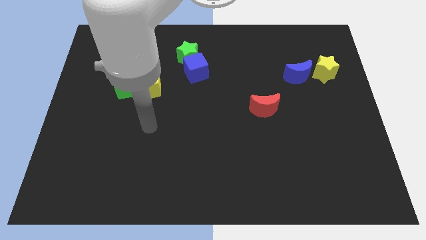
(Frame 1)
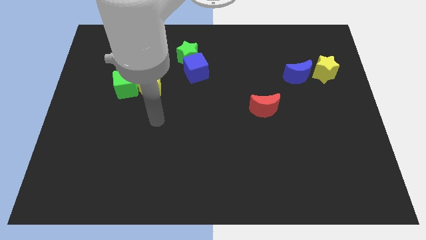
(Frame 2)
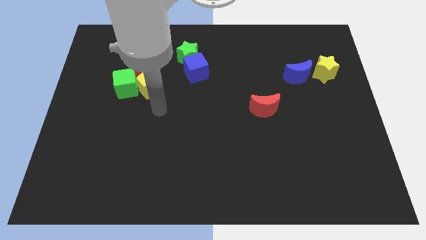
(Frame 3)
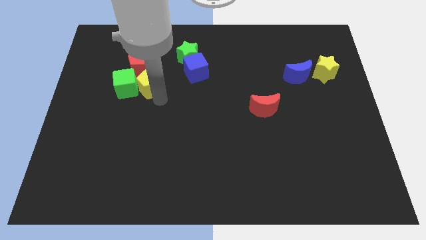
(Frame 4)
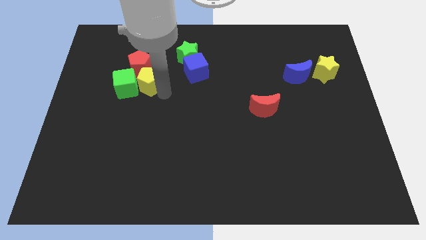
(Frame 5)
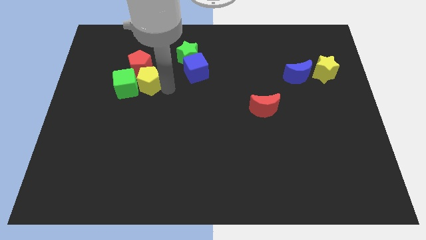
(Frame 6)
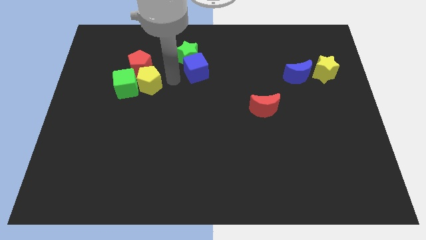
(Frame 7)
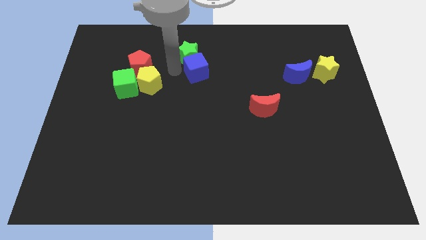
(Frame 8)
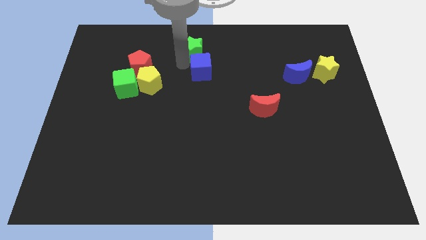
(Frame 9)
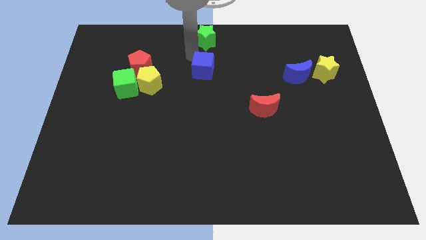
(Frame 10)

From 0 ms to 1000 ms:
move the blue cube away from the green star

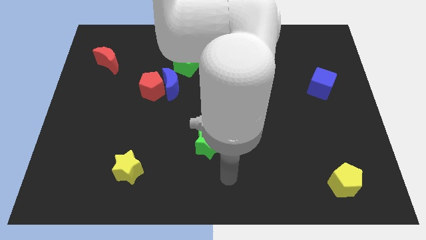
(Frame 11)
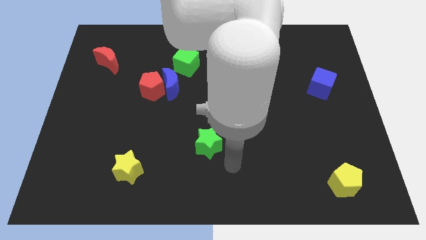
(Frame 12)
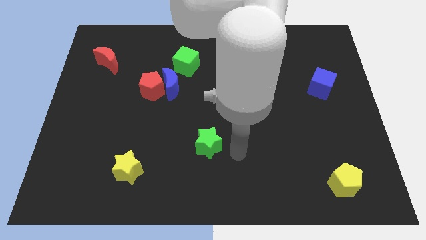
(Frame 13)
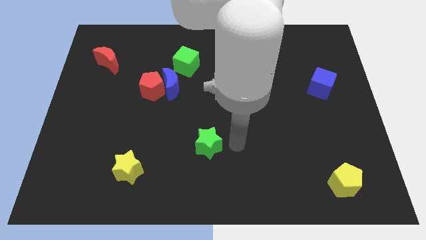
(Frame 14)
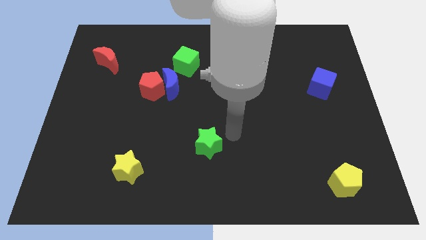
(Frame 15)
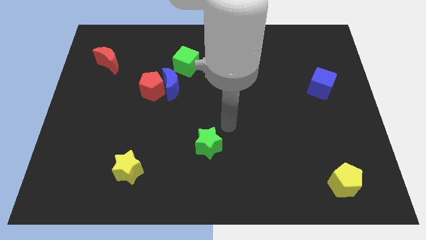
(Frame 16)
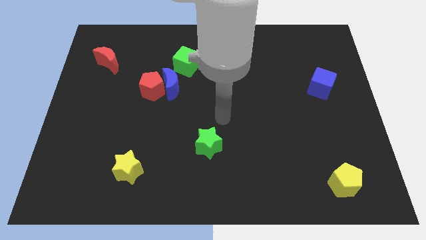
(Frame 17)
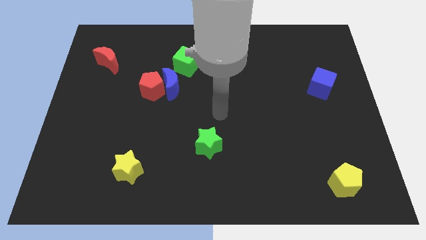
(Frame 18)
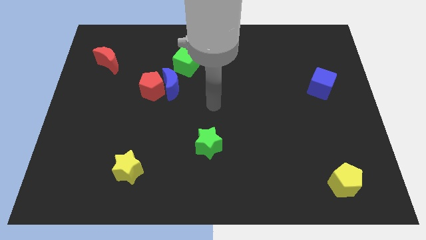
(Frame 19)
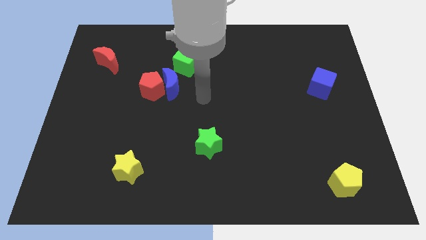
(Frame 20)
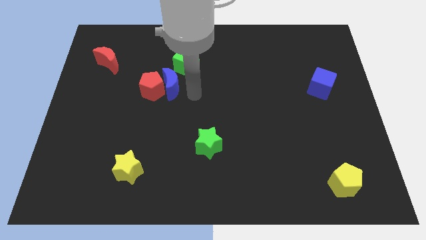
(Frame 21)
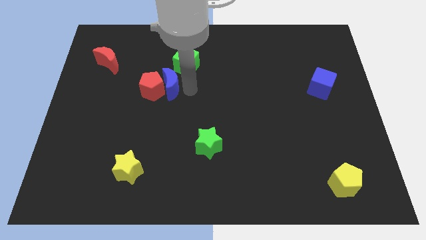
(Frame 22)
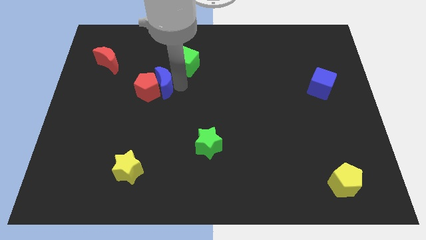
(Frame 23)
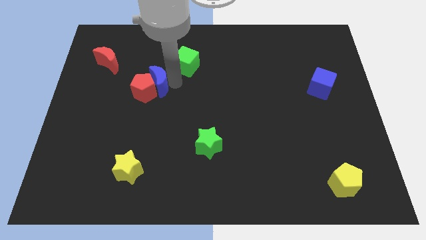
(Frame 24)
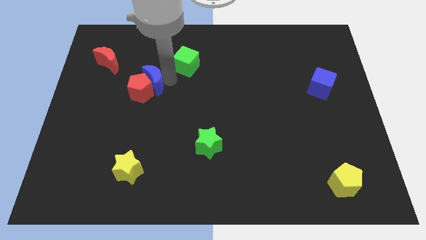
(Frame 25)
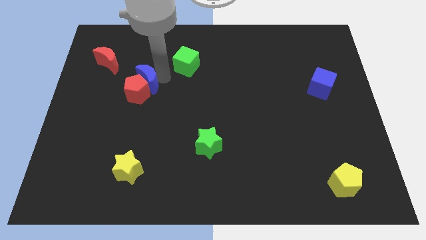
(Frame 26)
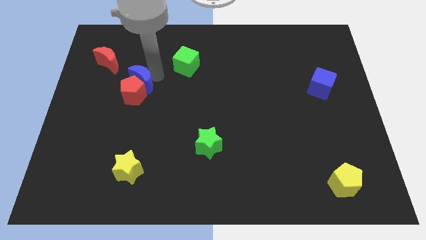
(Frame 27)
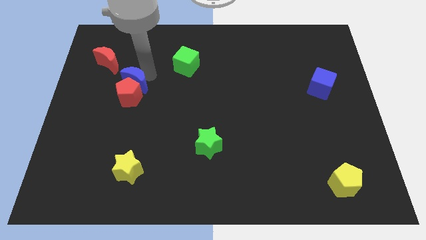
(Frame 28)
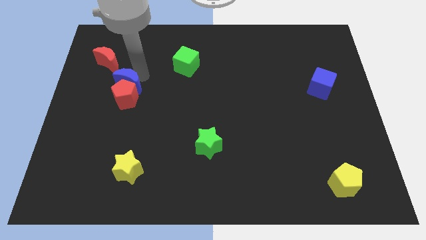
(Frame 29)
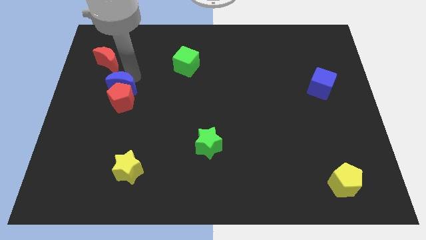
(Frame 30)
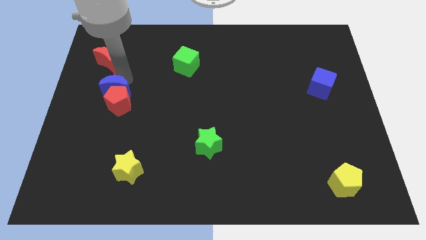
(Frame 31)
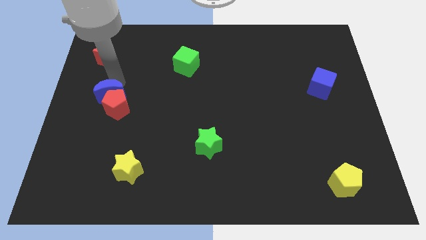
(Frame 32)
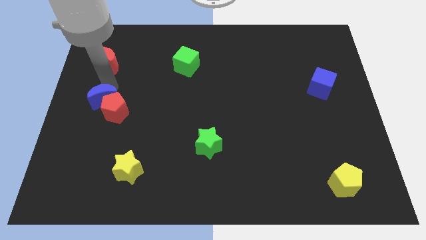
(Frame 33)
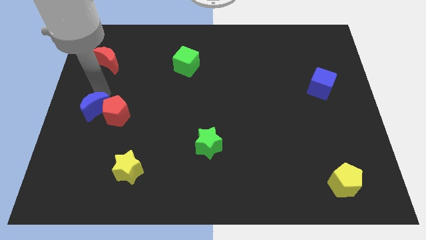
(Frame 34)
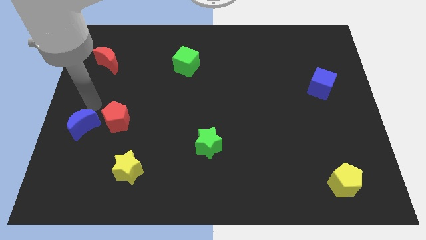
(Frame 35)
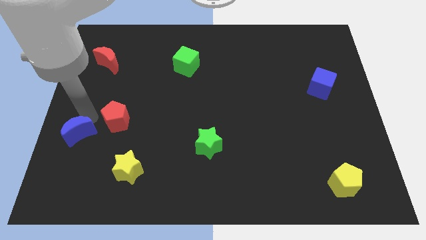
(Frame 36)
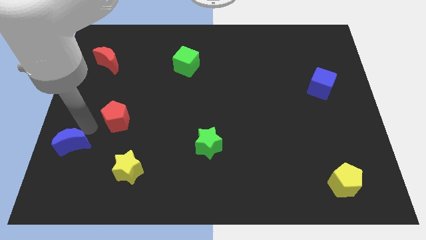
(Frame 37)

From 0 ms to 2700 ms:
pull the red pentagon apart from the blue moon

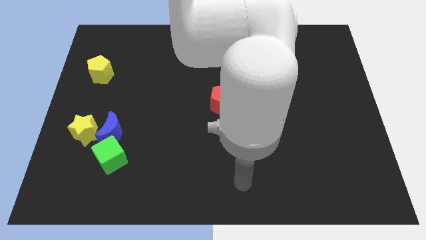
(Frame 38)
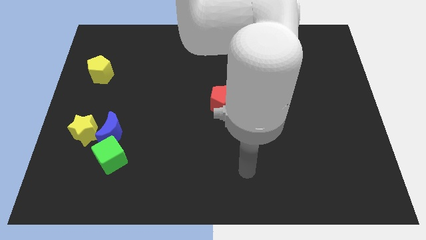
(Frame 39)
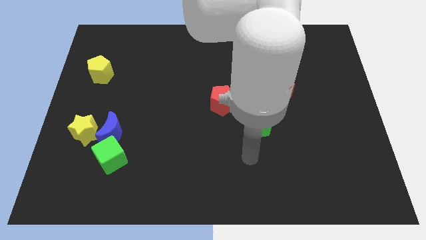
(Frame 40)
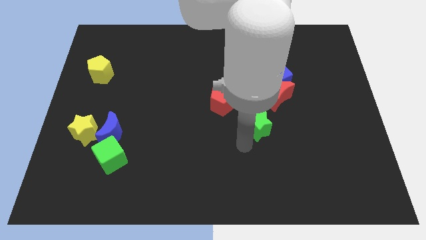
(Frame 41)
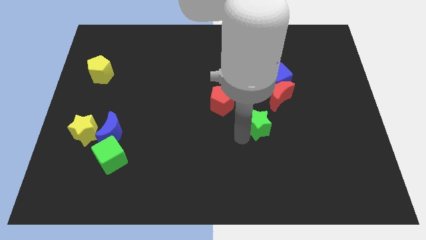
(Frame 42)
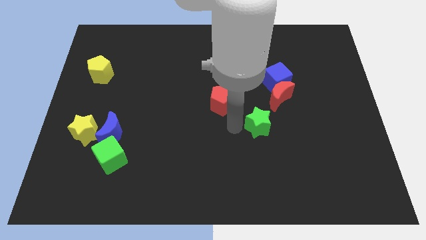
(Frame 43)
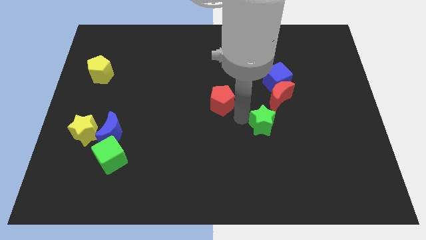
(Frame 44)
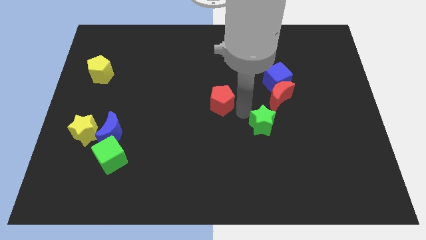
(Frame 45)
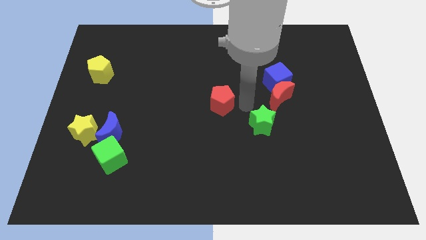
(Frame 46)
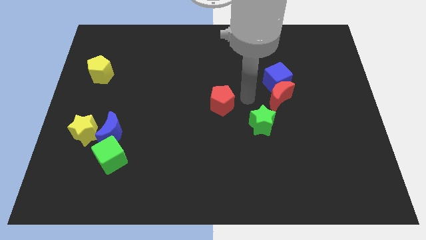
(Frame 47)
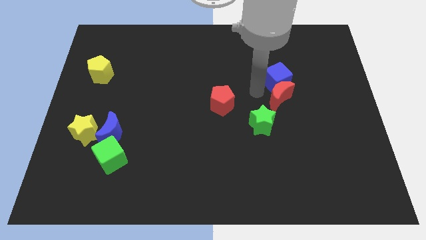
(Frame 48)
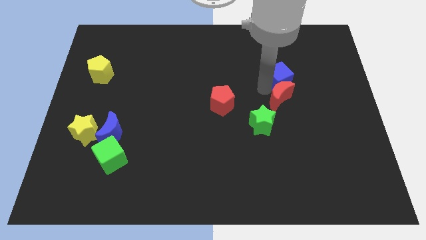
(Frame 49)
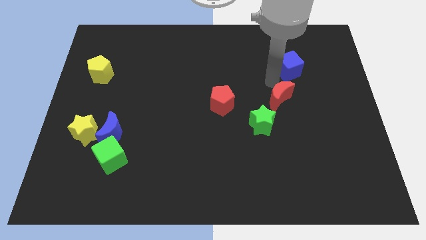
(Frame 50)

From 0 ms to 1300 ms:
pull the red moon apart from the blue cube

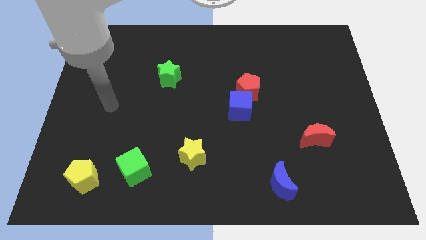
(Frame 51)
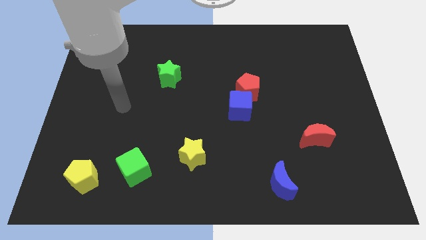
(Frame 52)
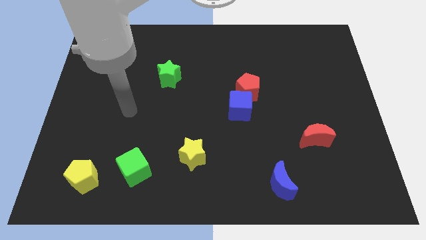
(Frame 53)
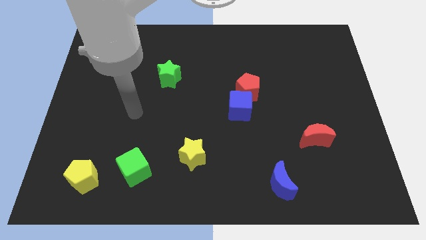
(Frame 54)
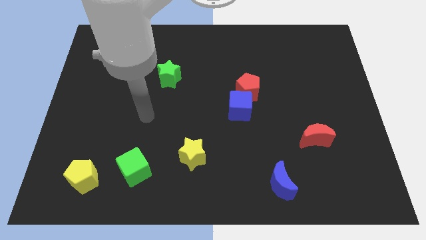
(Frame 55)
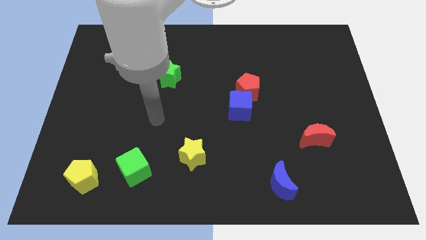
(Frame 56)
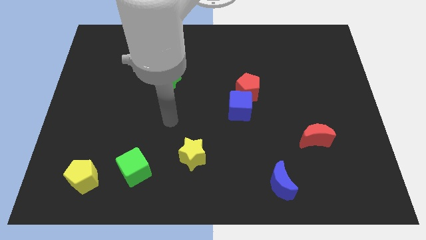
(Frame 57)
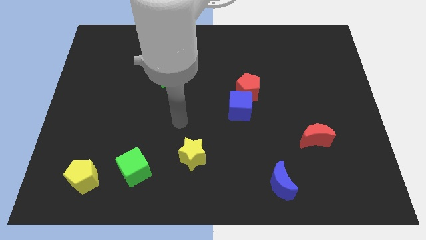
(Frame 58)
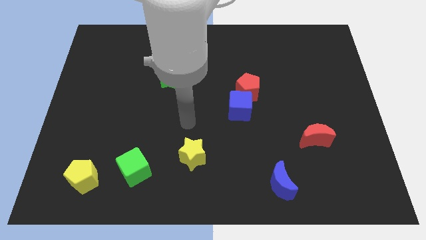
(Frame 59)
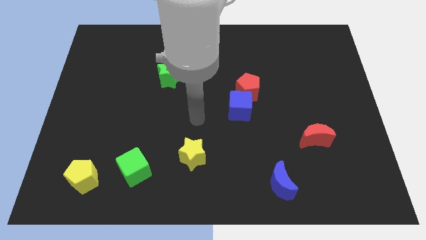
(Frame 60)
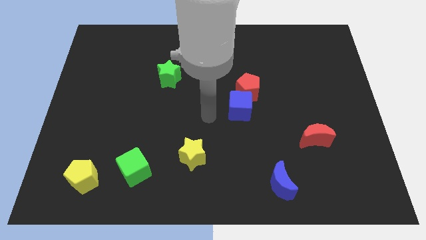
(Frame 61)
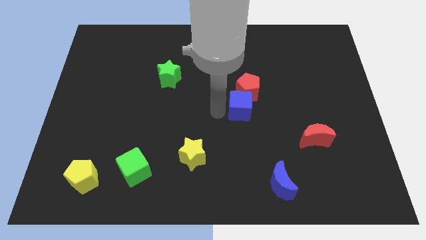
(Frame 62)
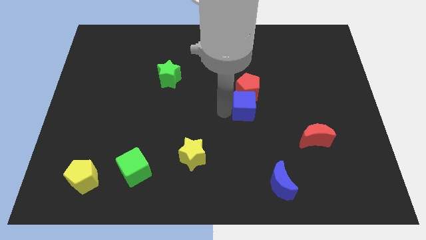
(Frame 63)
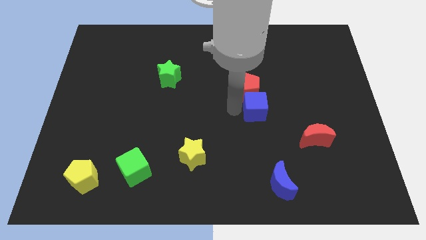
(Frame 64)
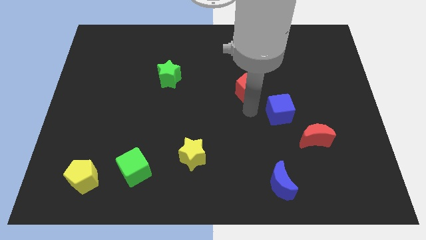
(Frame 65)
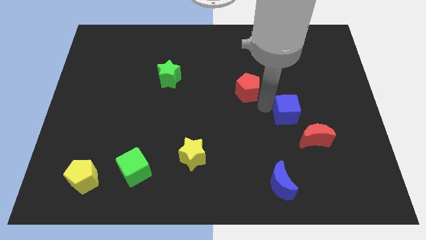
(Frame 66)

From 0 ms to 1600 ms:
move the red pentagon away from the blue cube

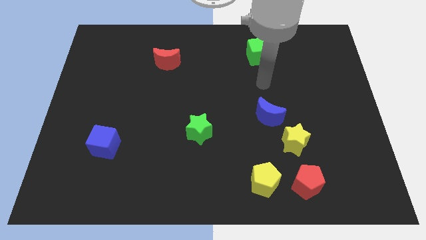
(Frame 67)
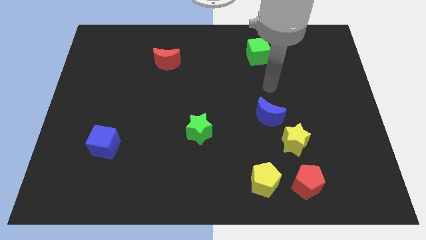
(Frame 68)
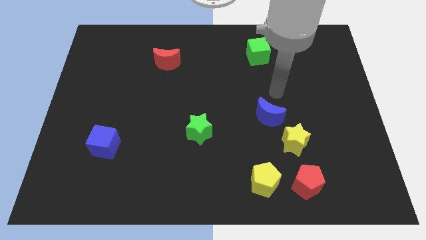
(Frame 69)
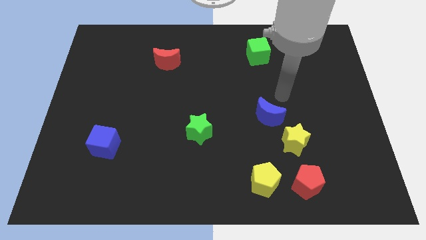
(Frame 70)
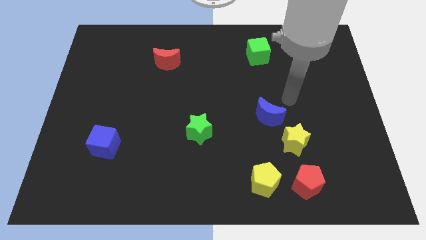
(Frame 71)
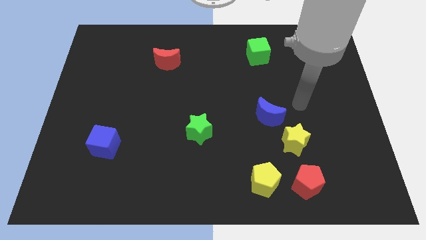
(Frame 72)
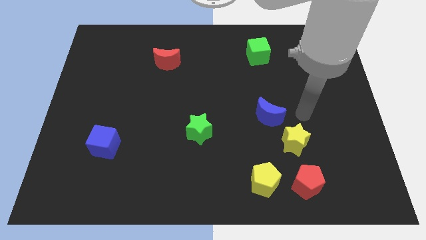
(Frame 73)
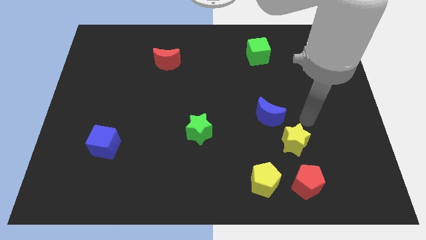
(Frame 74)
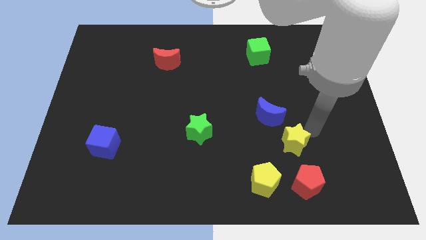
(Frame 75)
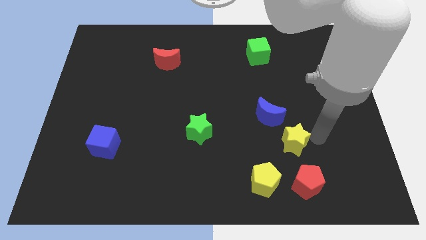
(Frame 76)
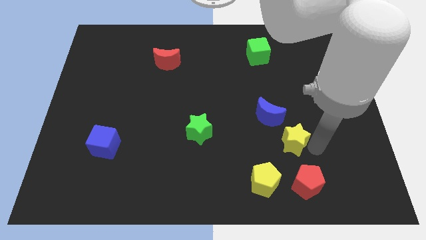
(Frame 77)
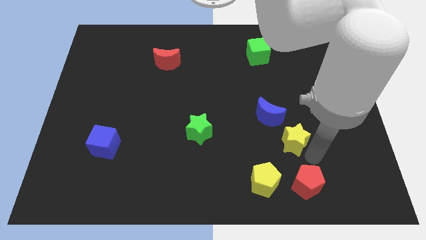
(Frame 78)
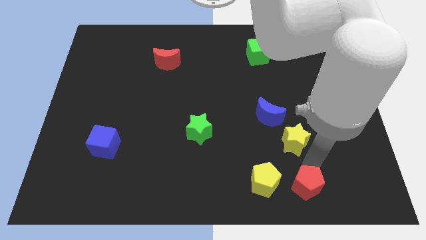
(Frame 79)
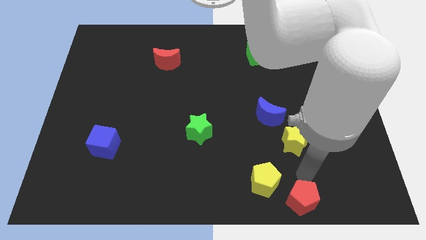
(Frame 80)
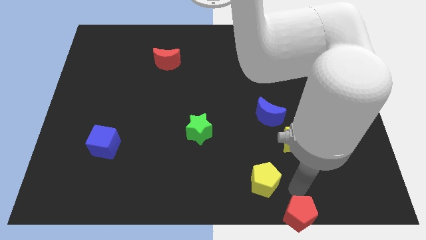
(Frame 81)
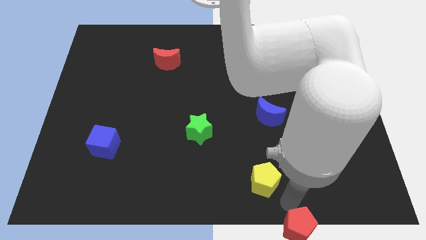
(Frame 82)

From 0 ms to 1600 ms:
separate the yellow pentagon from the red pentagon

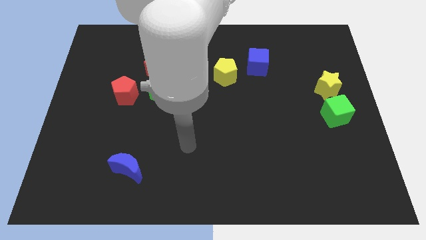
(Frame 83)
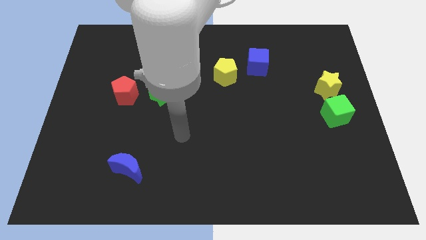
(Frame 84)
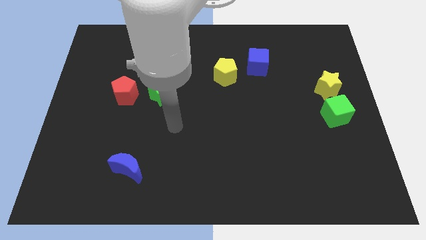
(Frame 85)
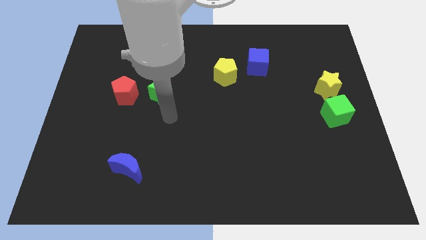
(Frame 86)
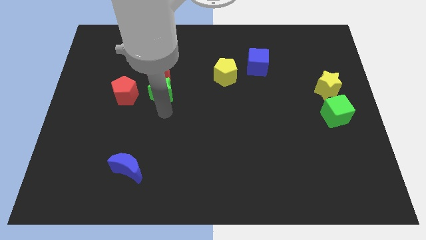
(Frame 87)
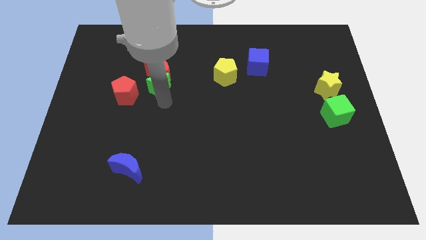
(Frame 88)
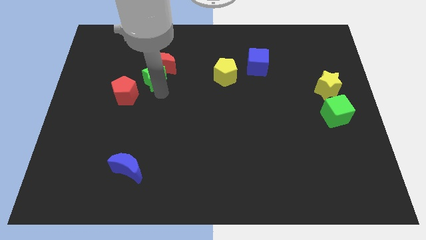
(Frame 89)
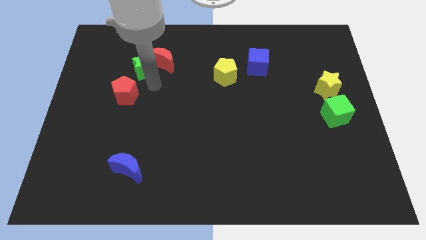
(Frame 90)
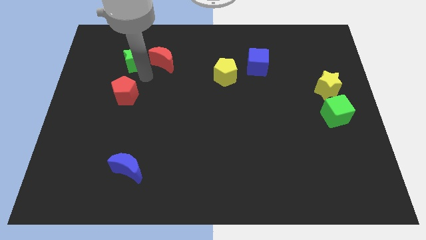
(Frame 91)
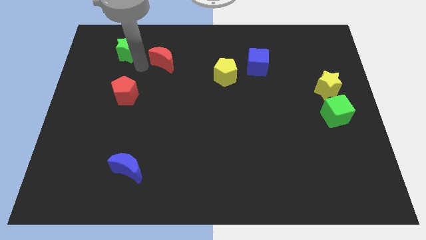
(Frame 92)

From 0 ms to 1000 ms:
move the red moon away from the green star

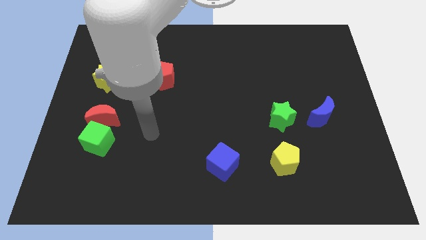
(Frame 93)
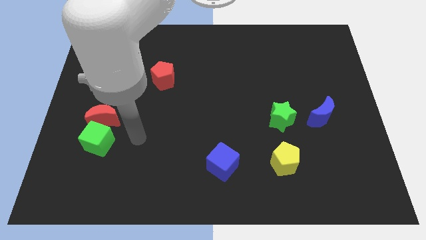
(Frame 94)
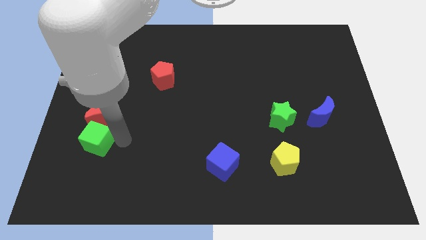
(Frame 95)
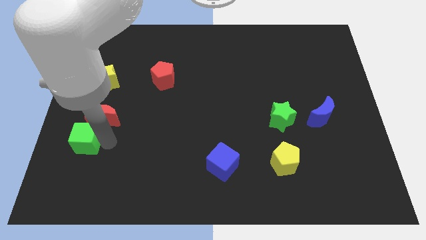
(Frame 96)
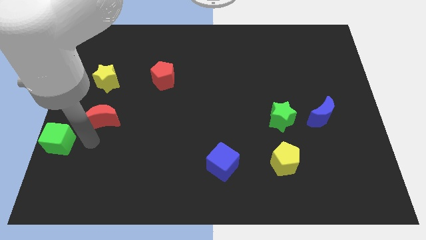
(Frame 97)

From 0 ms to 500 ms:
pull the red moon apart from the green cube
